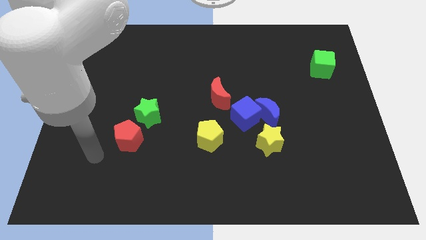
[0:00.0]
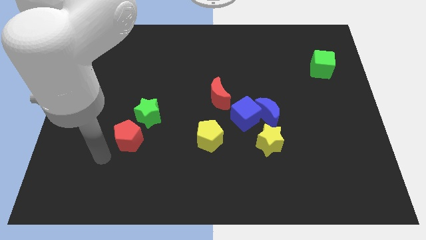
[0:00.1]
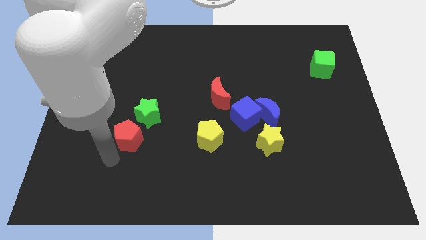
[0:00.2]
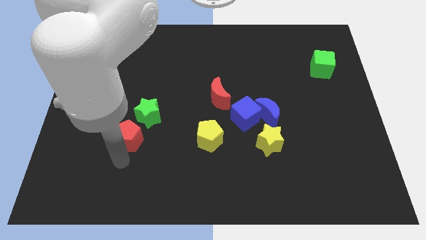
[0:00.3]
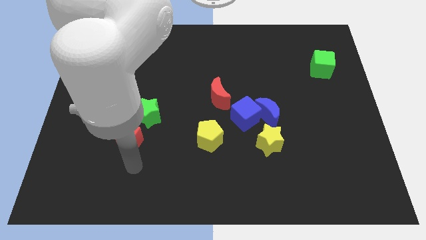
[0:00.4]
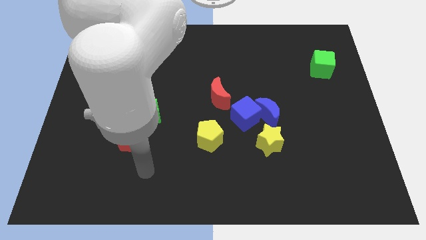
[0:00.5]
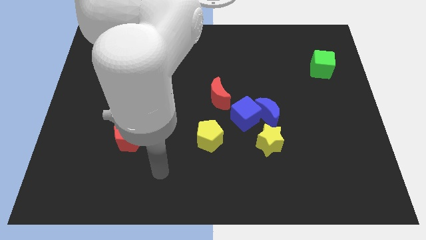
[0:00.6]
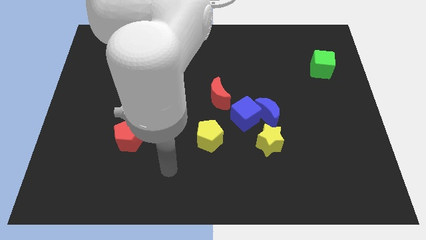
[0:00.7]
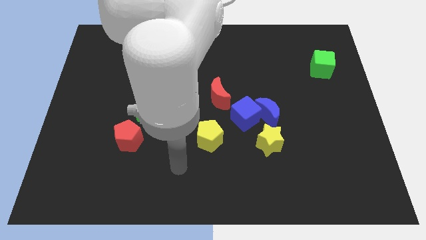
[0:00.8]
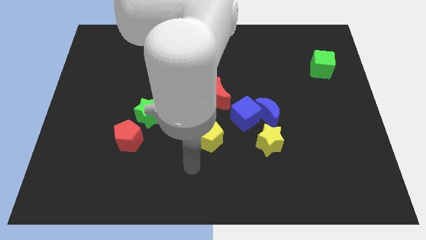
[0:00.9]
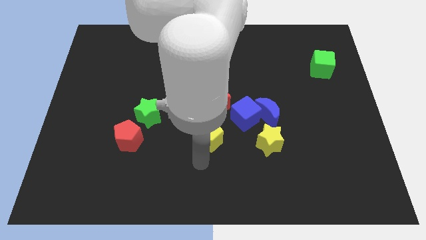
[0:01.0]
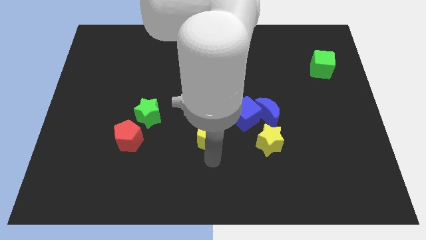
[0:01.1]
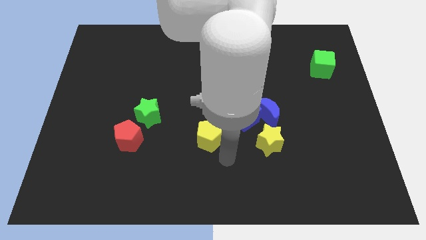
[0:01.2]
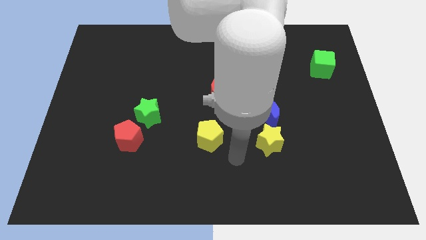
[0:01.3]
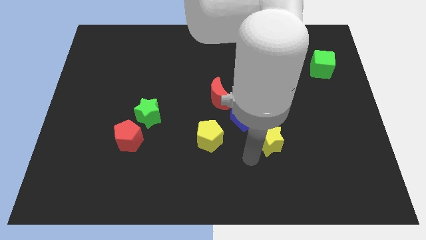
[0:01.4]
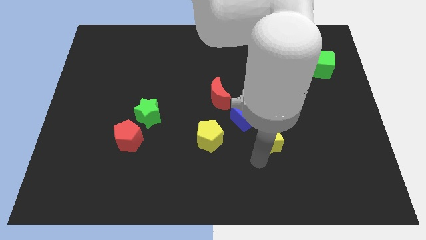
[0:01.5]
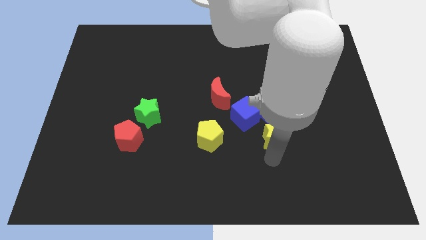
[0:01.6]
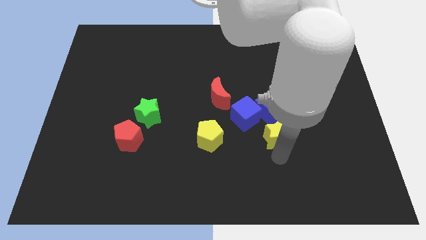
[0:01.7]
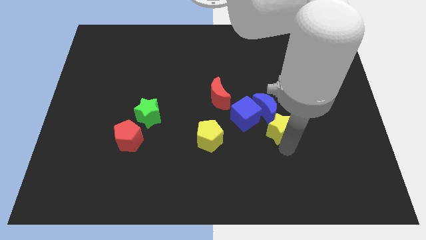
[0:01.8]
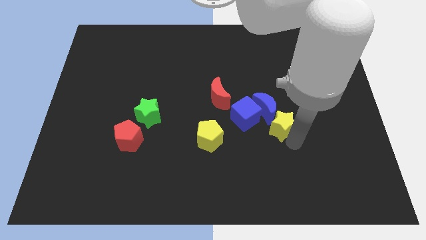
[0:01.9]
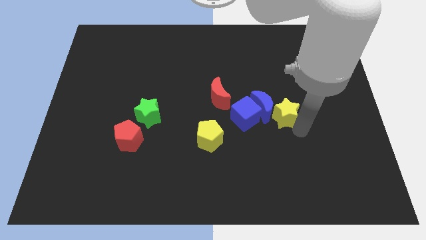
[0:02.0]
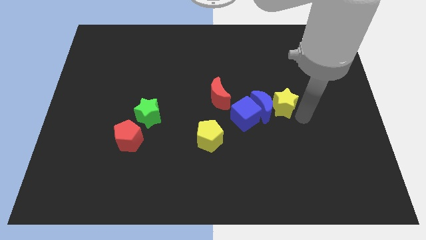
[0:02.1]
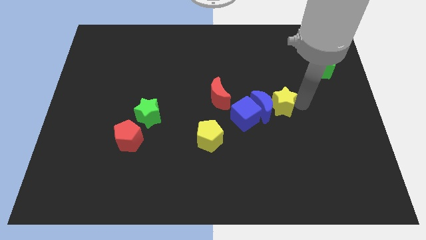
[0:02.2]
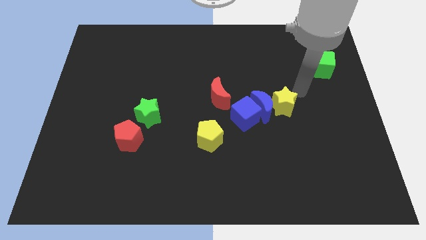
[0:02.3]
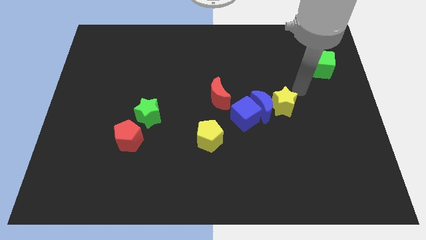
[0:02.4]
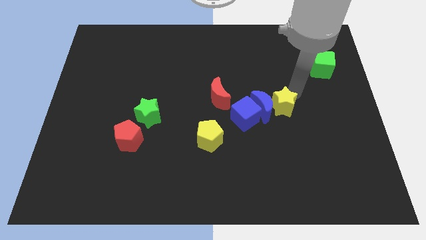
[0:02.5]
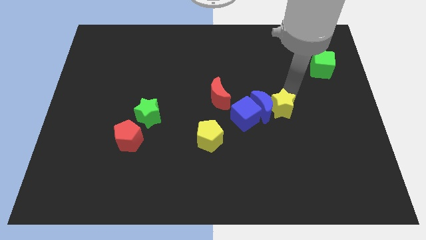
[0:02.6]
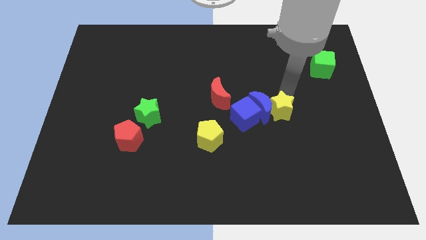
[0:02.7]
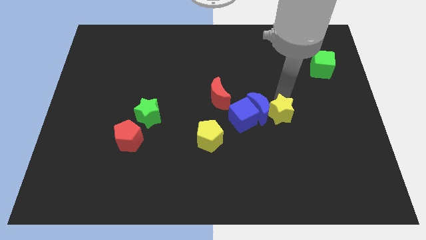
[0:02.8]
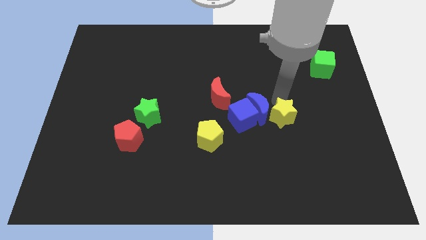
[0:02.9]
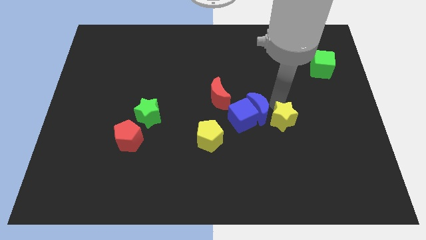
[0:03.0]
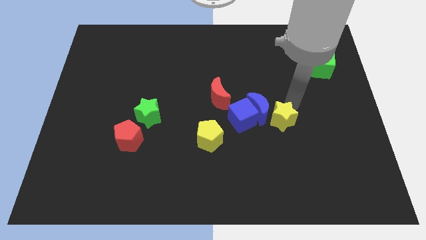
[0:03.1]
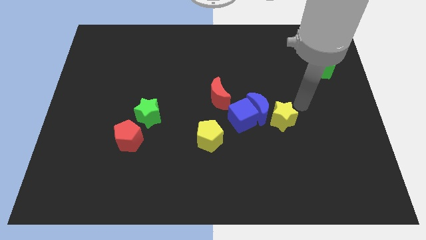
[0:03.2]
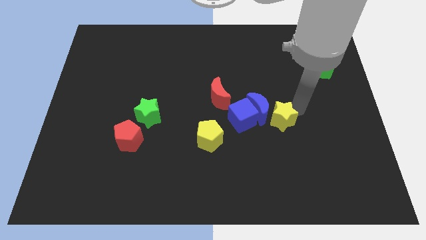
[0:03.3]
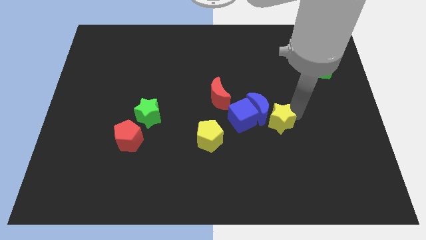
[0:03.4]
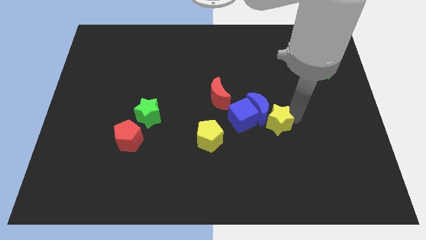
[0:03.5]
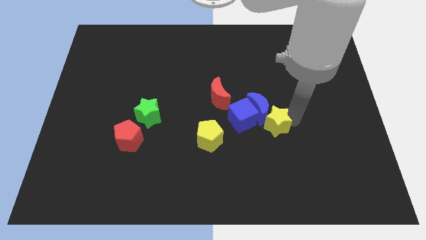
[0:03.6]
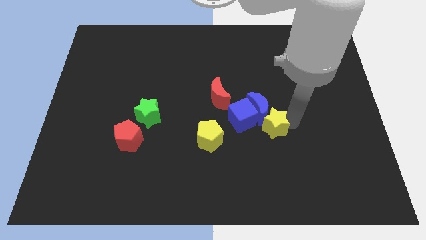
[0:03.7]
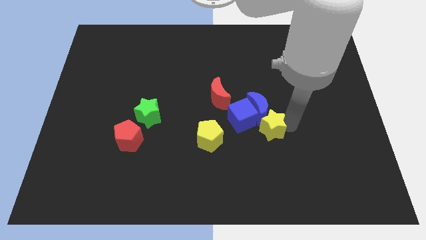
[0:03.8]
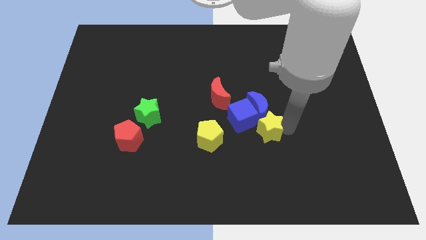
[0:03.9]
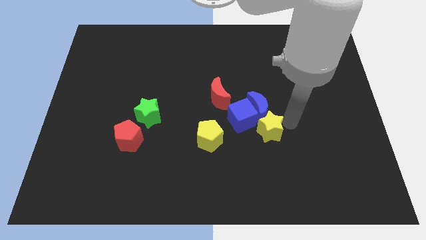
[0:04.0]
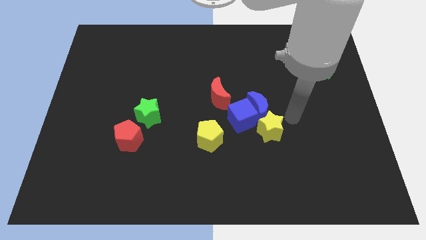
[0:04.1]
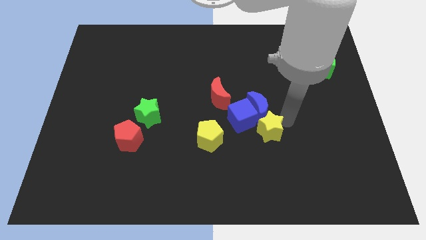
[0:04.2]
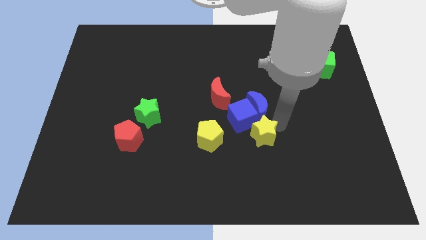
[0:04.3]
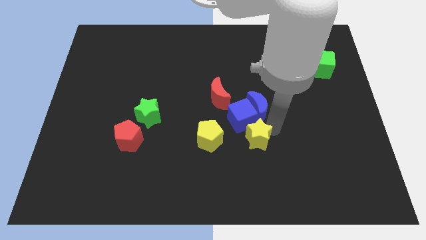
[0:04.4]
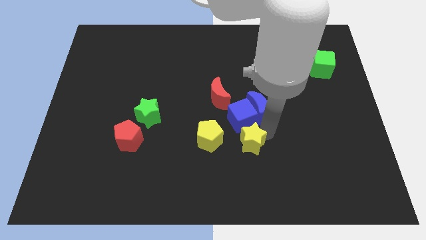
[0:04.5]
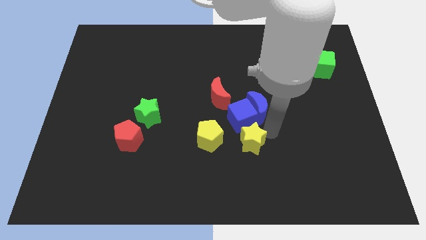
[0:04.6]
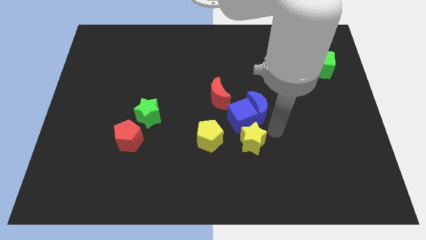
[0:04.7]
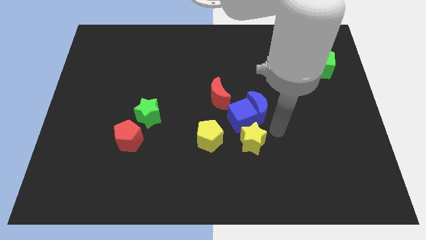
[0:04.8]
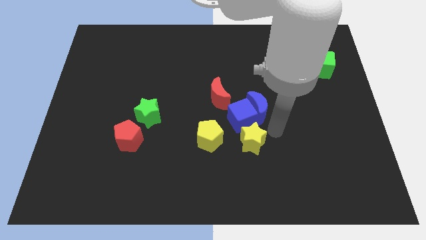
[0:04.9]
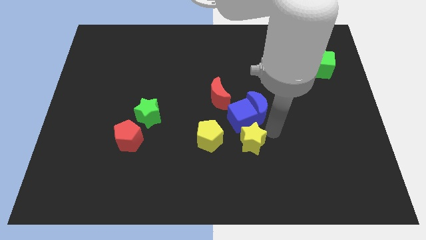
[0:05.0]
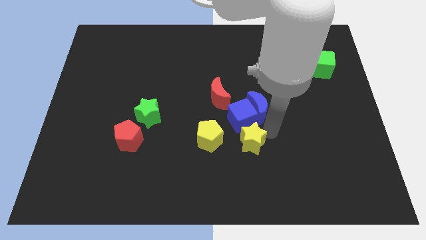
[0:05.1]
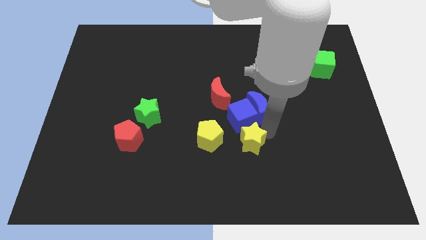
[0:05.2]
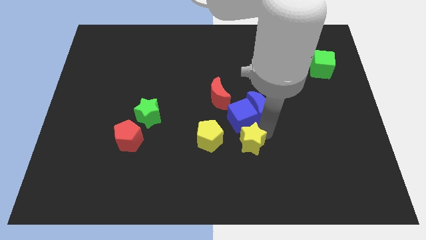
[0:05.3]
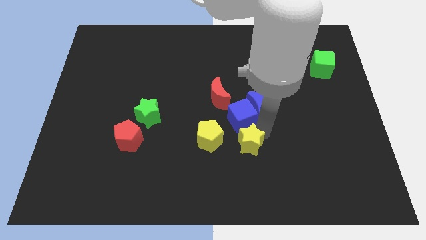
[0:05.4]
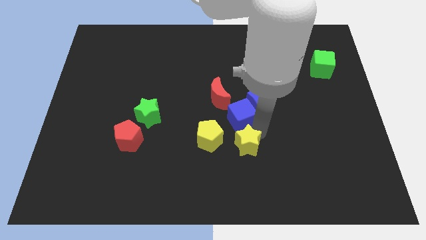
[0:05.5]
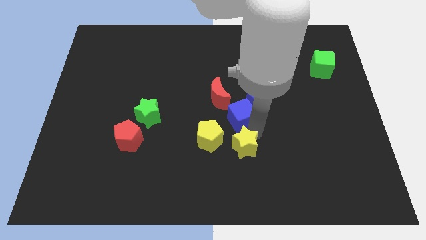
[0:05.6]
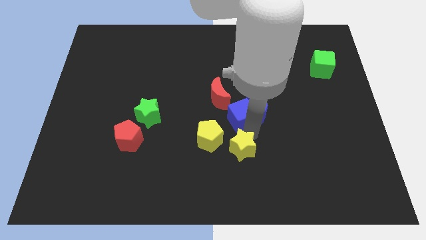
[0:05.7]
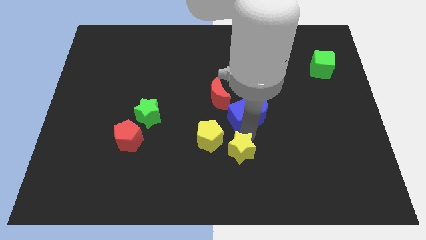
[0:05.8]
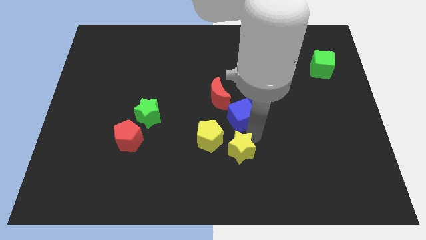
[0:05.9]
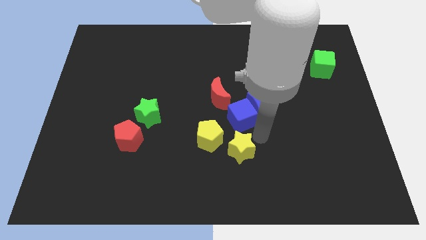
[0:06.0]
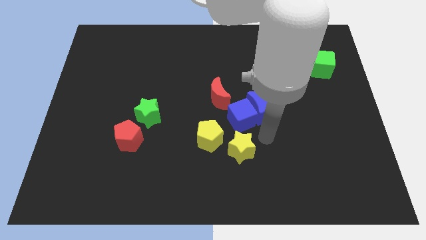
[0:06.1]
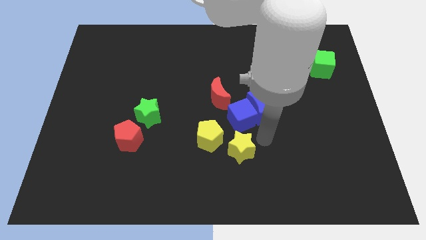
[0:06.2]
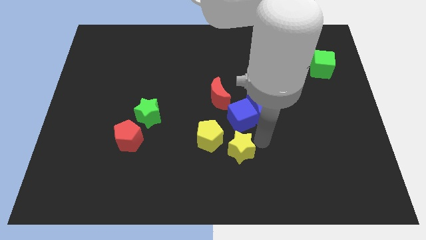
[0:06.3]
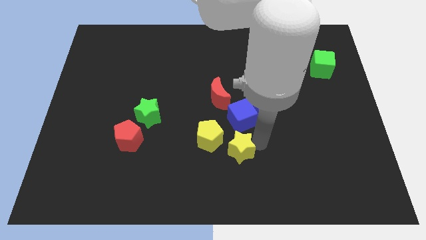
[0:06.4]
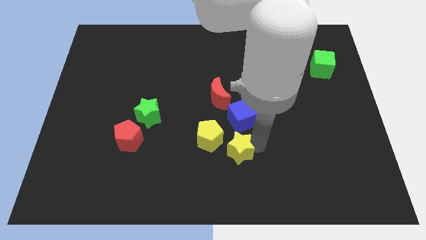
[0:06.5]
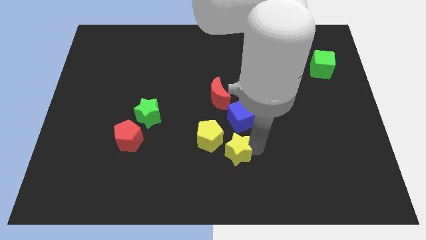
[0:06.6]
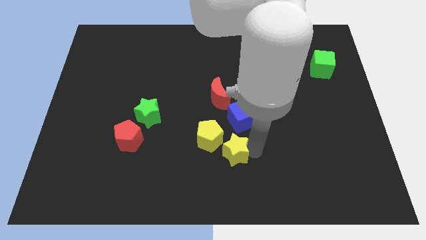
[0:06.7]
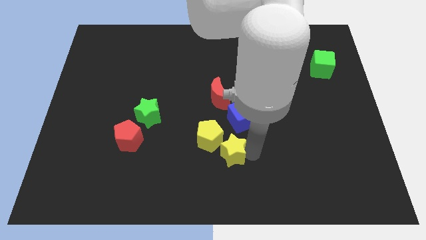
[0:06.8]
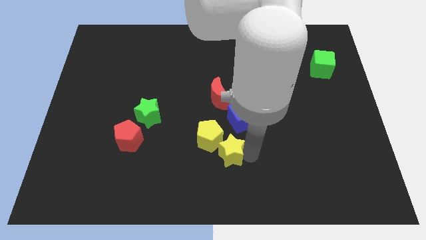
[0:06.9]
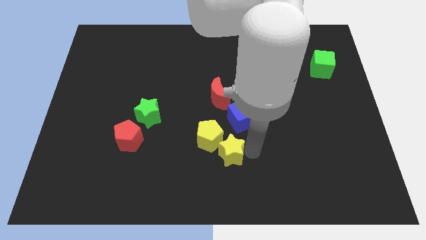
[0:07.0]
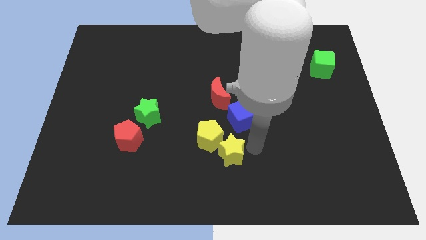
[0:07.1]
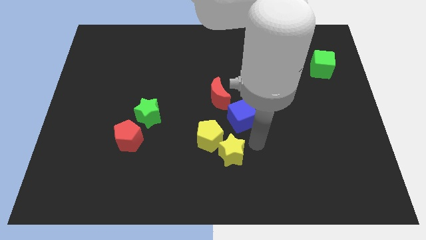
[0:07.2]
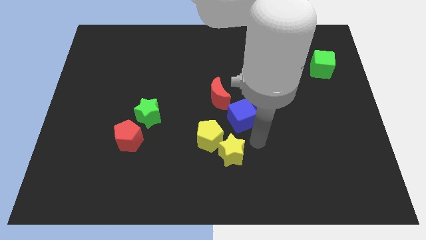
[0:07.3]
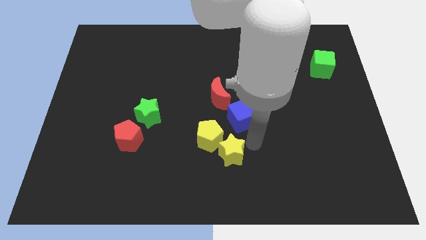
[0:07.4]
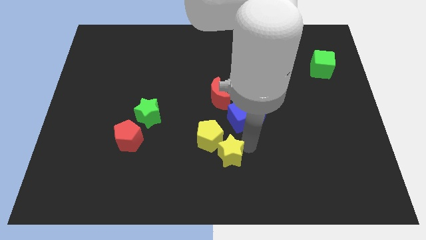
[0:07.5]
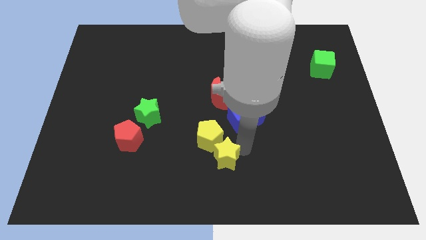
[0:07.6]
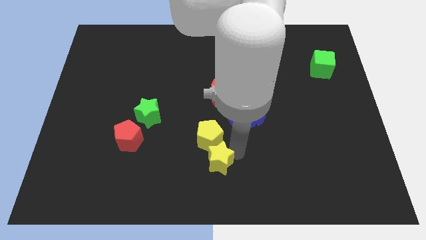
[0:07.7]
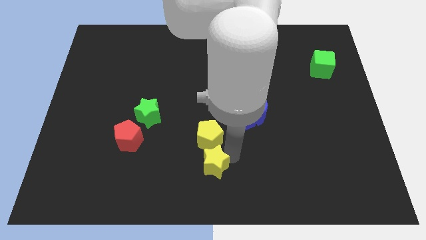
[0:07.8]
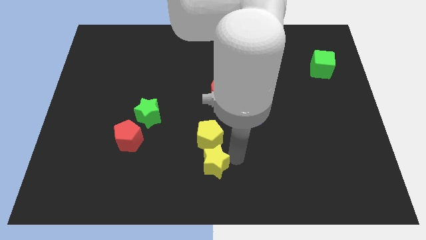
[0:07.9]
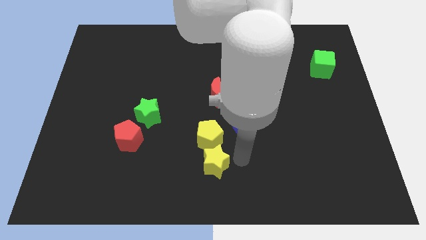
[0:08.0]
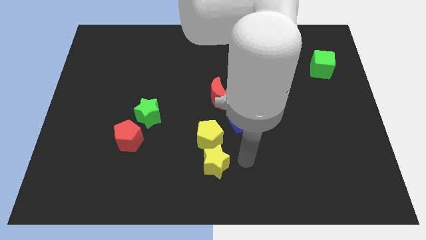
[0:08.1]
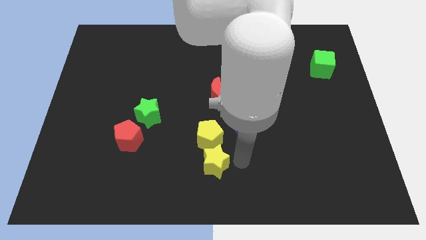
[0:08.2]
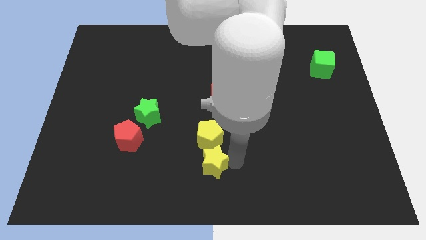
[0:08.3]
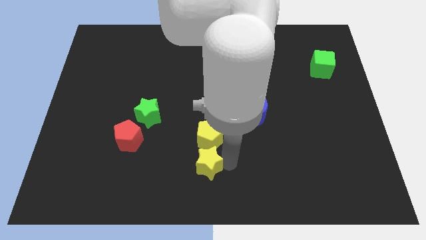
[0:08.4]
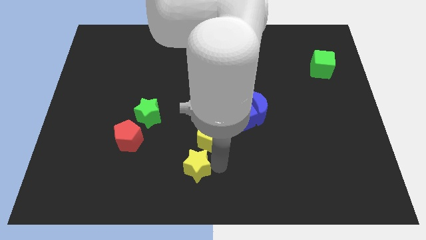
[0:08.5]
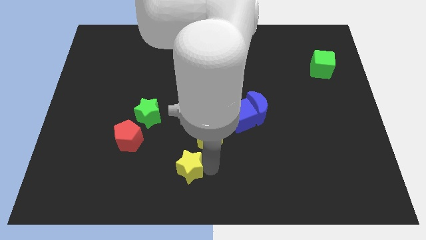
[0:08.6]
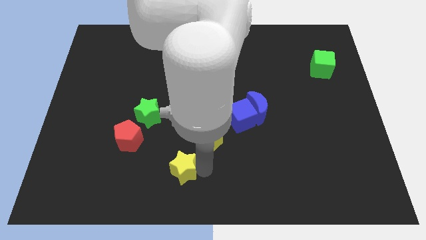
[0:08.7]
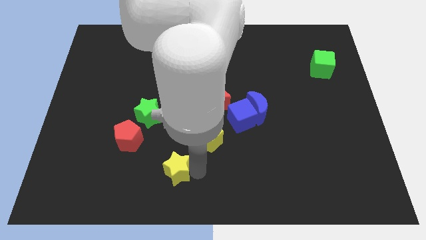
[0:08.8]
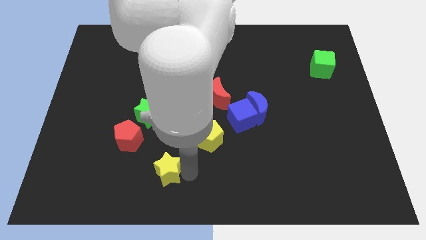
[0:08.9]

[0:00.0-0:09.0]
move the yellow star to the bottom right side of the red pentagon
